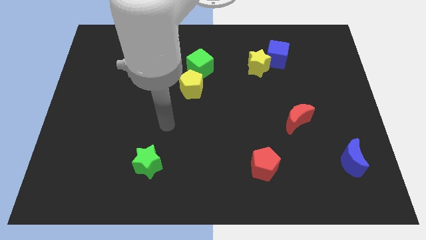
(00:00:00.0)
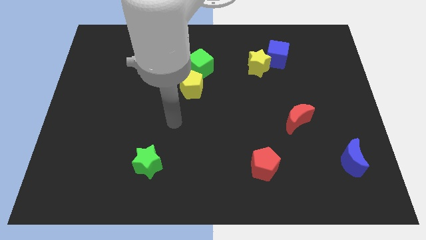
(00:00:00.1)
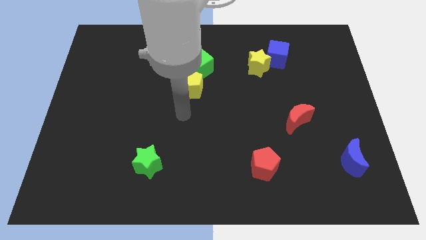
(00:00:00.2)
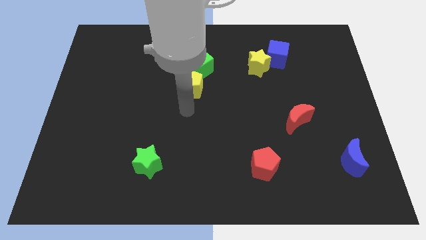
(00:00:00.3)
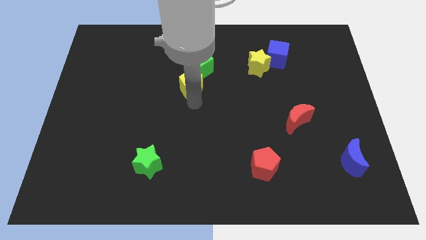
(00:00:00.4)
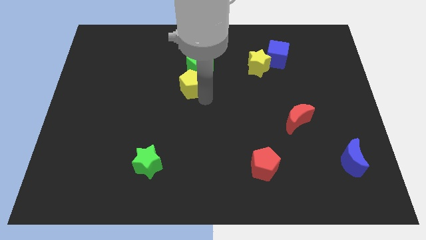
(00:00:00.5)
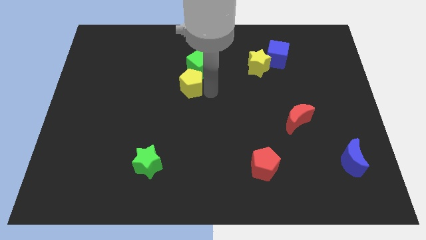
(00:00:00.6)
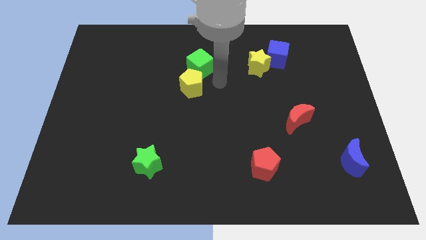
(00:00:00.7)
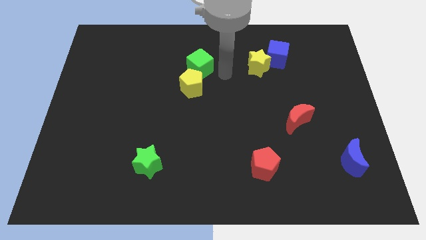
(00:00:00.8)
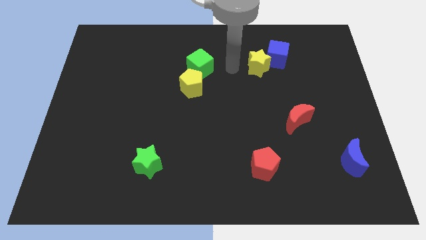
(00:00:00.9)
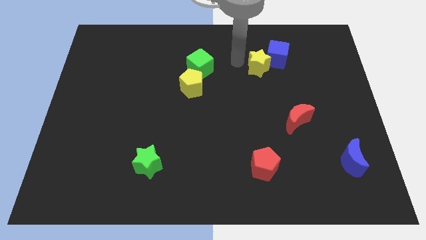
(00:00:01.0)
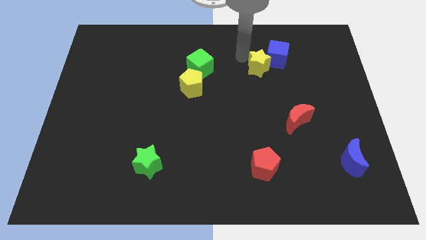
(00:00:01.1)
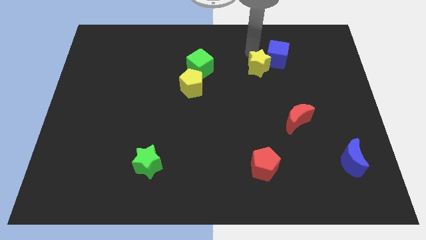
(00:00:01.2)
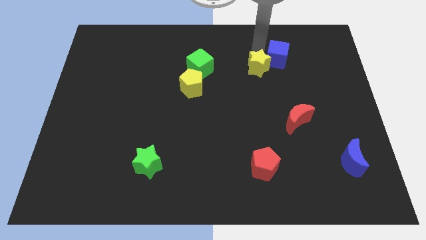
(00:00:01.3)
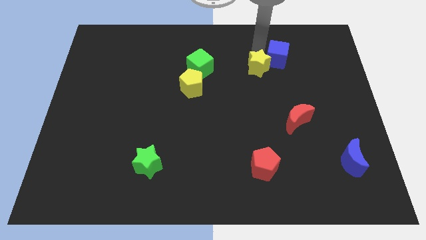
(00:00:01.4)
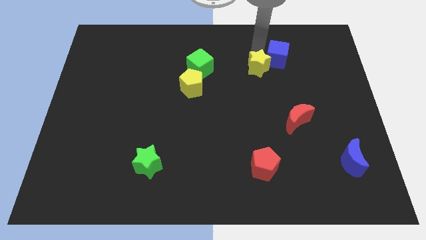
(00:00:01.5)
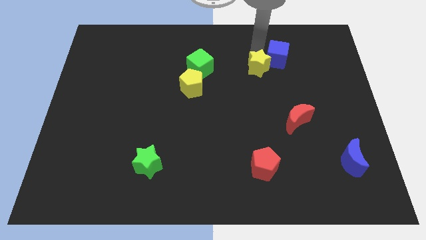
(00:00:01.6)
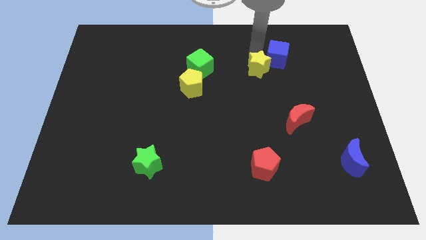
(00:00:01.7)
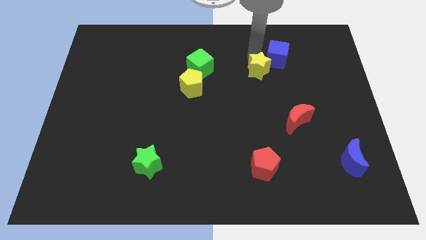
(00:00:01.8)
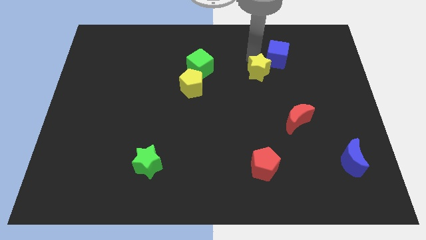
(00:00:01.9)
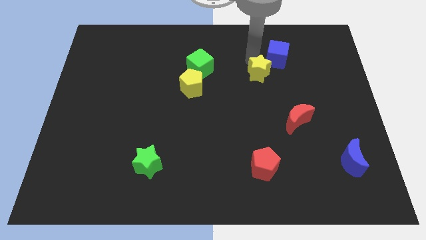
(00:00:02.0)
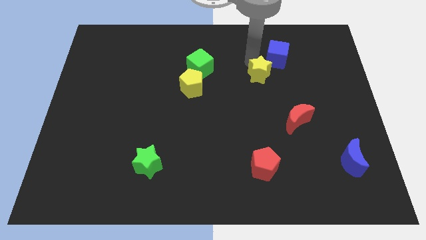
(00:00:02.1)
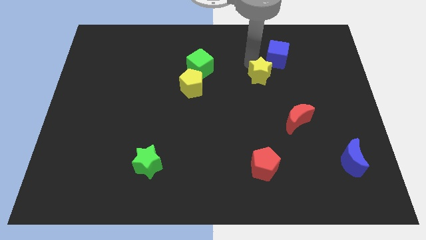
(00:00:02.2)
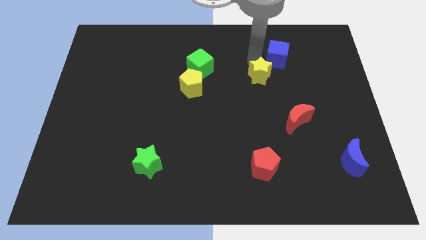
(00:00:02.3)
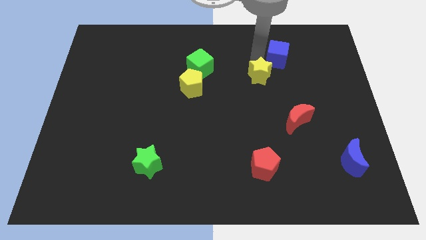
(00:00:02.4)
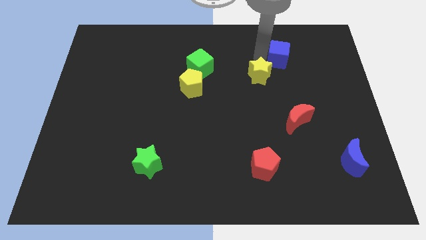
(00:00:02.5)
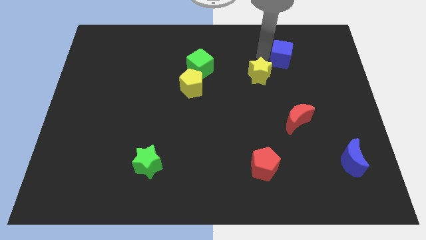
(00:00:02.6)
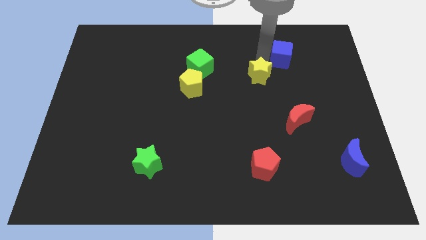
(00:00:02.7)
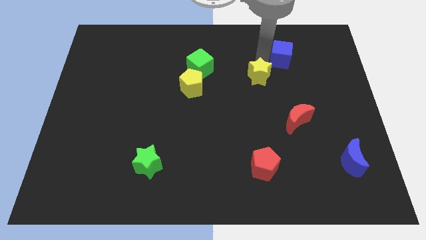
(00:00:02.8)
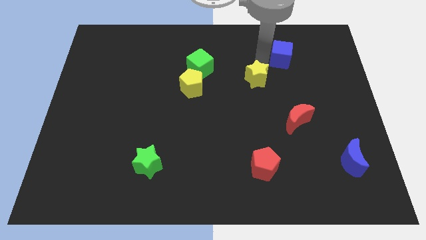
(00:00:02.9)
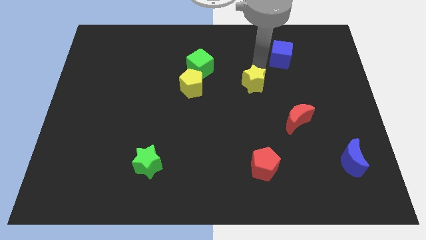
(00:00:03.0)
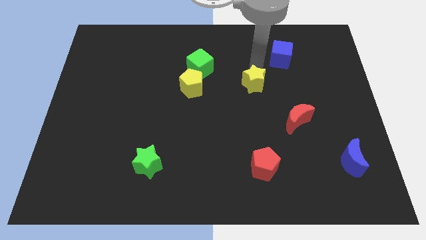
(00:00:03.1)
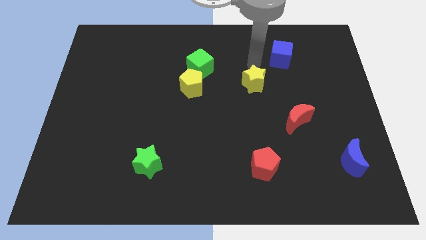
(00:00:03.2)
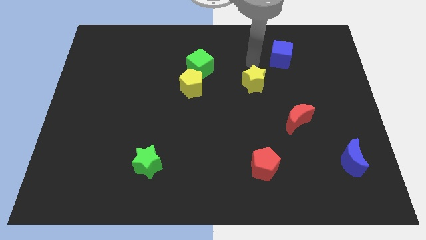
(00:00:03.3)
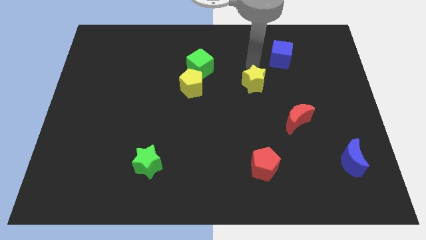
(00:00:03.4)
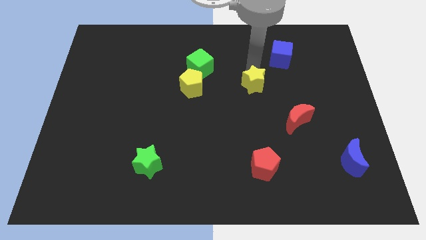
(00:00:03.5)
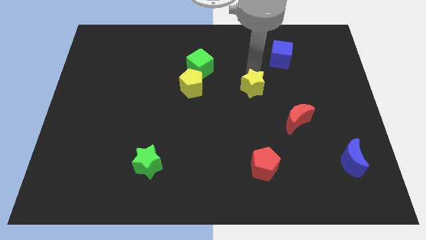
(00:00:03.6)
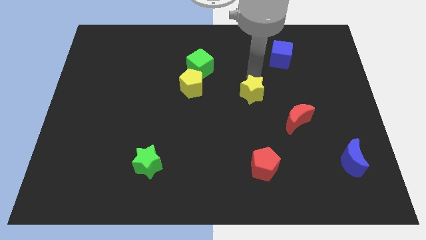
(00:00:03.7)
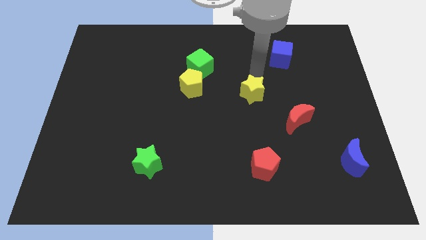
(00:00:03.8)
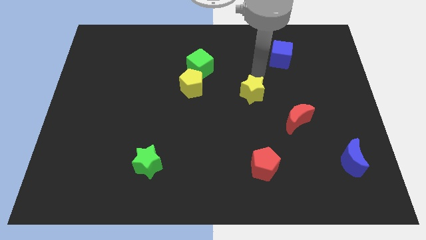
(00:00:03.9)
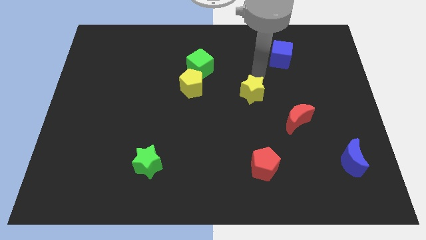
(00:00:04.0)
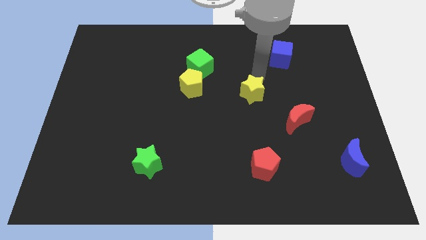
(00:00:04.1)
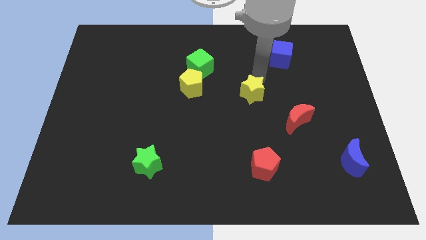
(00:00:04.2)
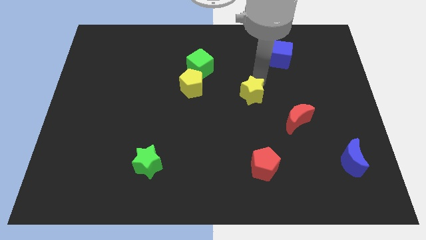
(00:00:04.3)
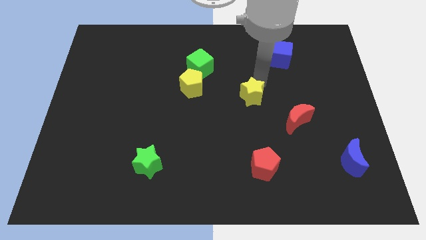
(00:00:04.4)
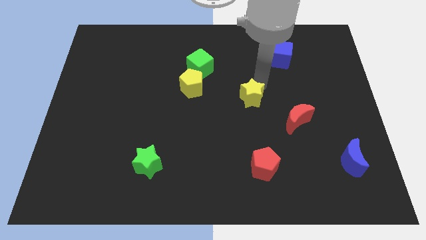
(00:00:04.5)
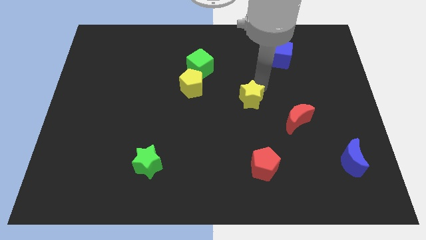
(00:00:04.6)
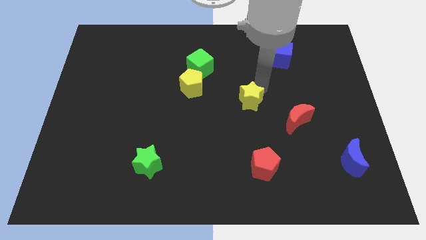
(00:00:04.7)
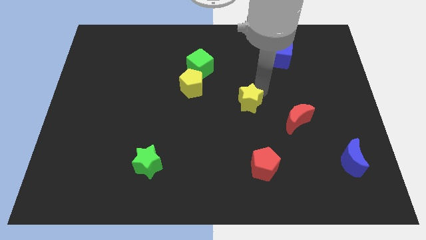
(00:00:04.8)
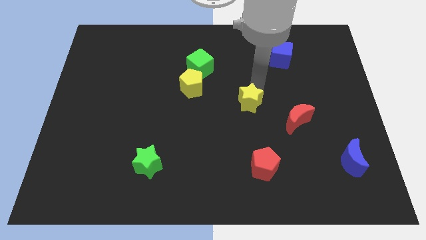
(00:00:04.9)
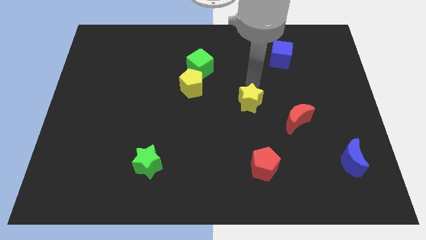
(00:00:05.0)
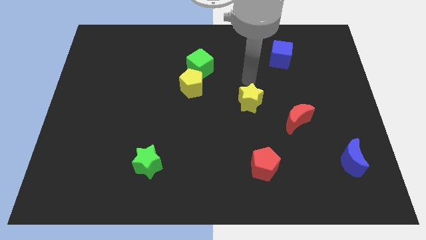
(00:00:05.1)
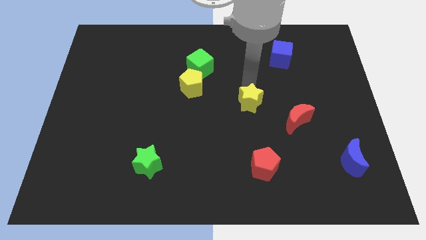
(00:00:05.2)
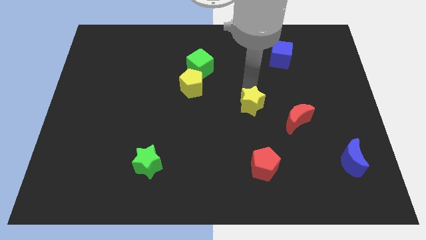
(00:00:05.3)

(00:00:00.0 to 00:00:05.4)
push the yellow star left of the red moon

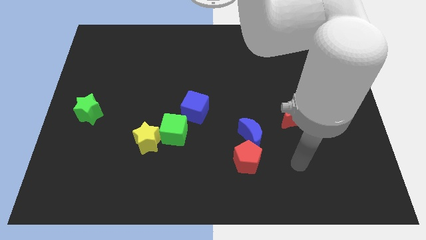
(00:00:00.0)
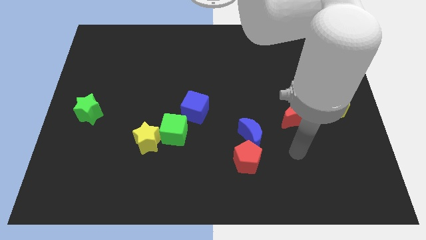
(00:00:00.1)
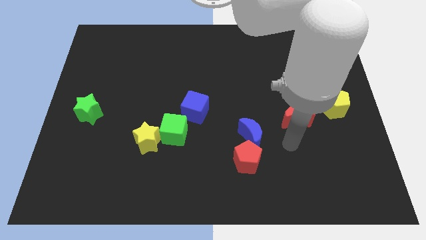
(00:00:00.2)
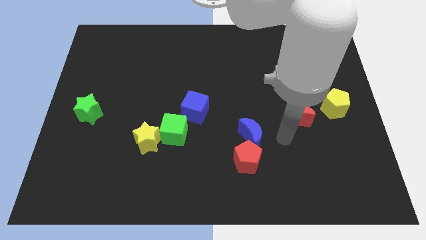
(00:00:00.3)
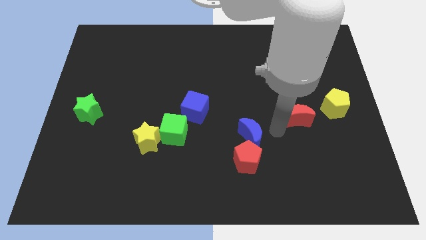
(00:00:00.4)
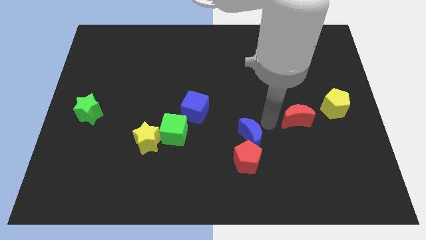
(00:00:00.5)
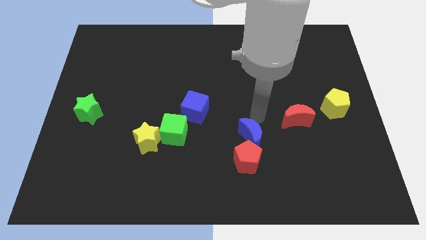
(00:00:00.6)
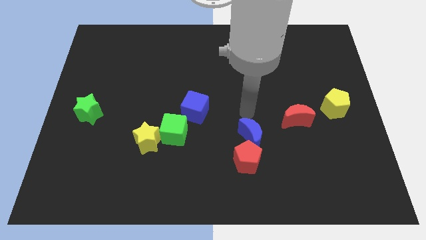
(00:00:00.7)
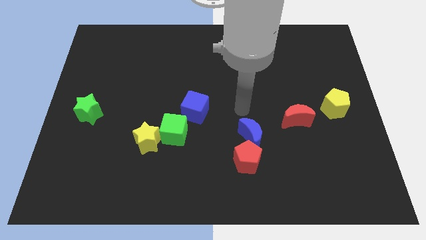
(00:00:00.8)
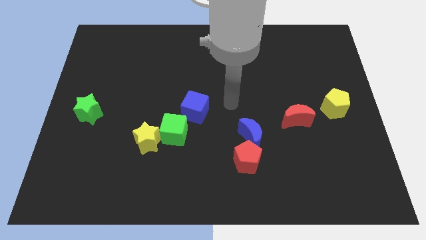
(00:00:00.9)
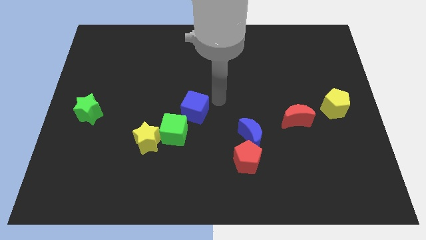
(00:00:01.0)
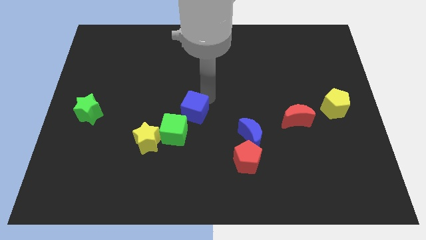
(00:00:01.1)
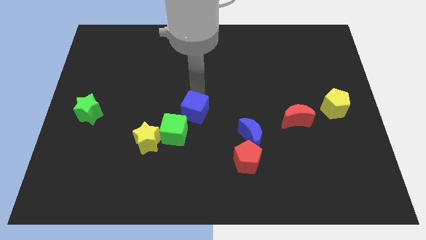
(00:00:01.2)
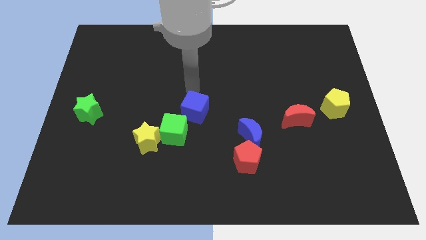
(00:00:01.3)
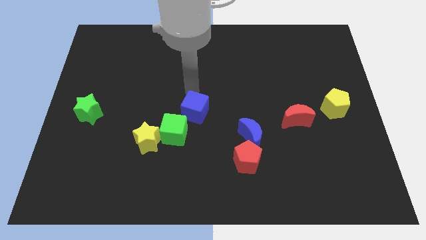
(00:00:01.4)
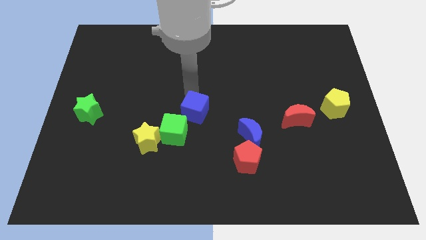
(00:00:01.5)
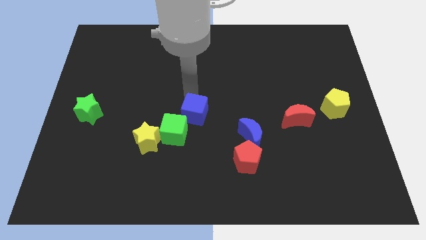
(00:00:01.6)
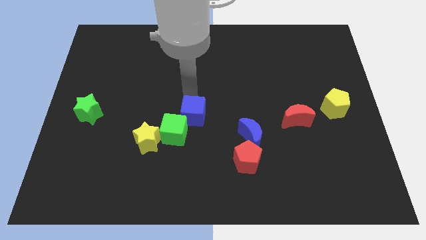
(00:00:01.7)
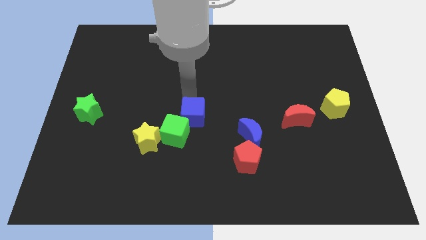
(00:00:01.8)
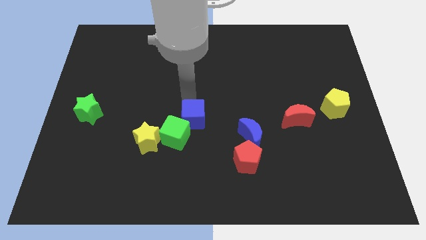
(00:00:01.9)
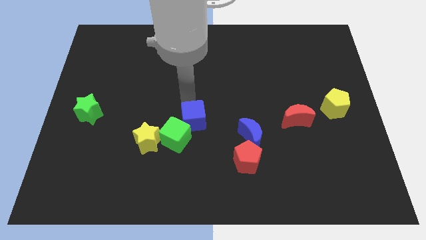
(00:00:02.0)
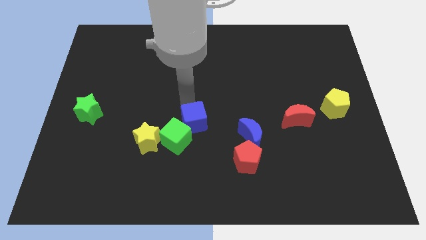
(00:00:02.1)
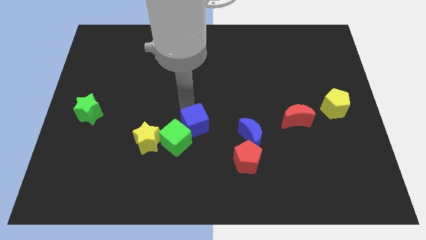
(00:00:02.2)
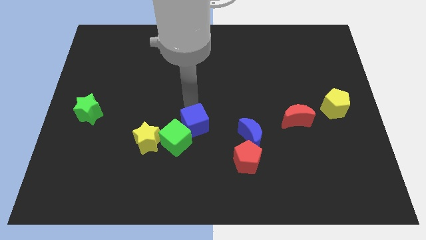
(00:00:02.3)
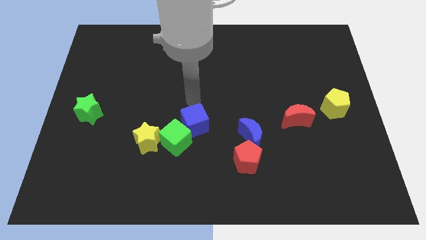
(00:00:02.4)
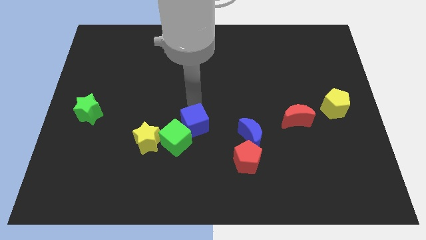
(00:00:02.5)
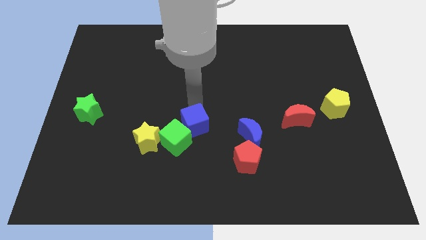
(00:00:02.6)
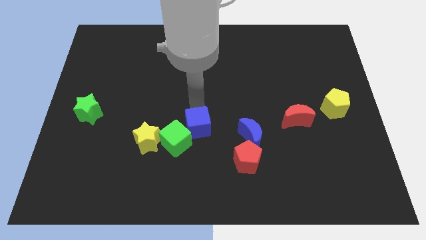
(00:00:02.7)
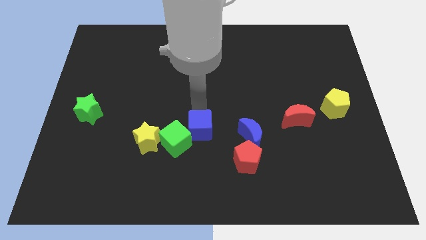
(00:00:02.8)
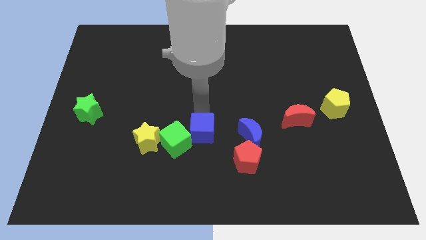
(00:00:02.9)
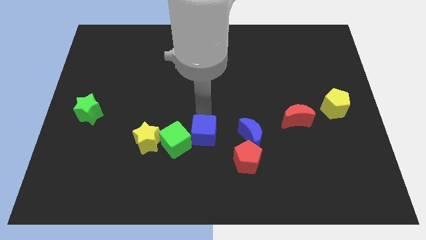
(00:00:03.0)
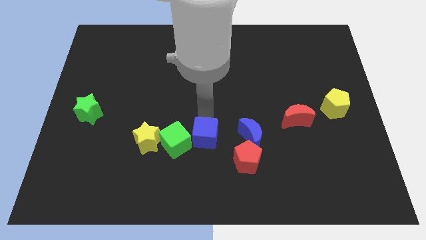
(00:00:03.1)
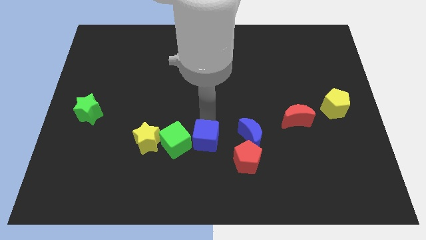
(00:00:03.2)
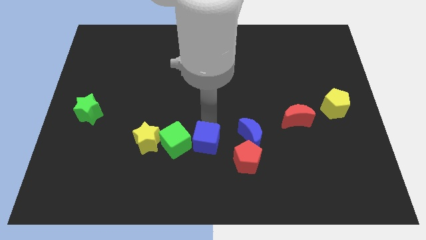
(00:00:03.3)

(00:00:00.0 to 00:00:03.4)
slide the blue cube to the left side of the red pentagon
